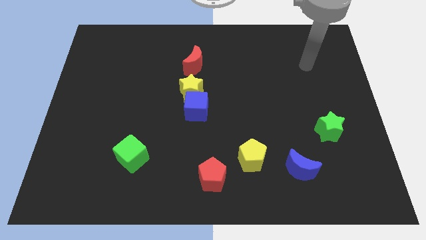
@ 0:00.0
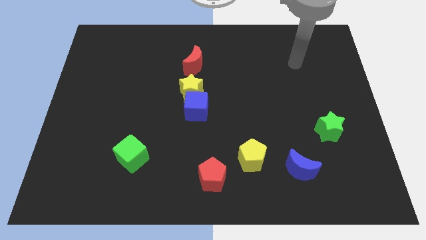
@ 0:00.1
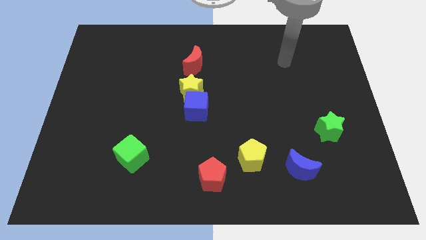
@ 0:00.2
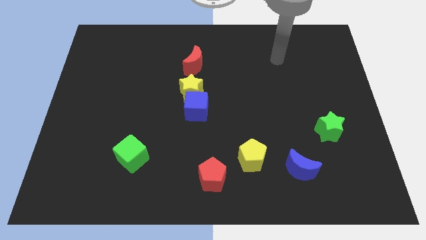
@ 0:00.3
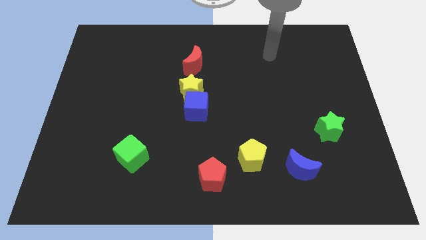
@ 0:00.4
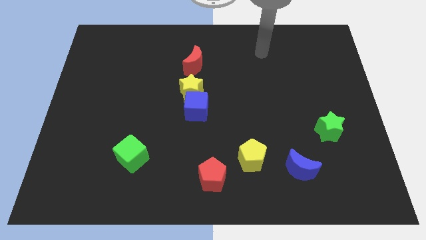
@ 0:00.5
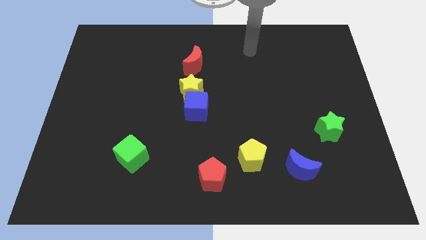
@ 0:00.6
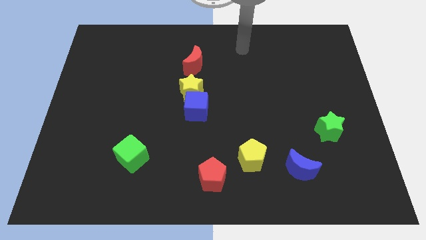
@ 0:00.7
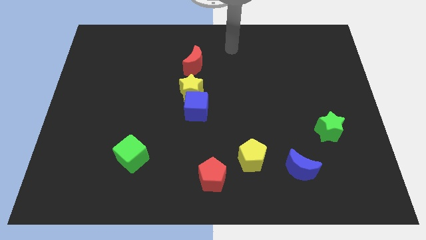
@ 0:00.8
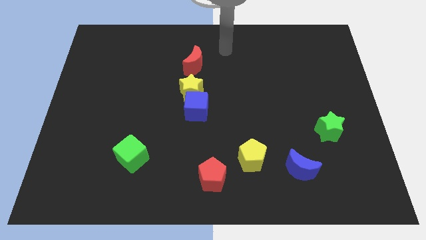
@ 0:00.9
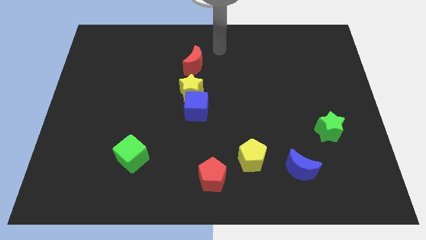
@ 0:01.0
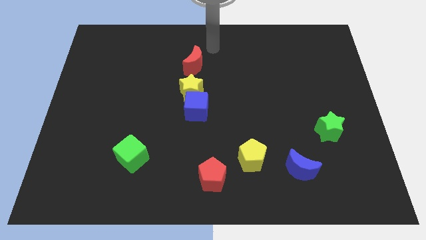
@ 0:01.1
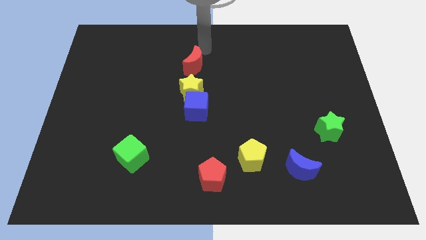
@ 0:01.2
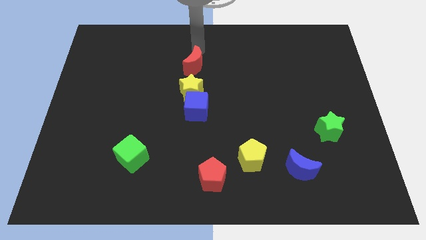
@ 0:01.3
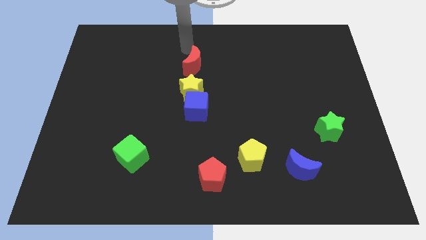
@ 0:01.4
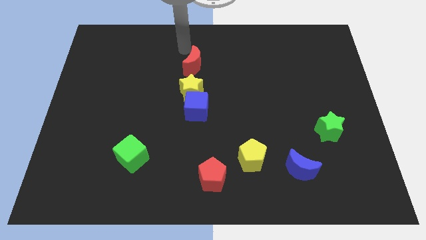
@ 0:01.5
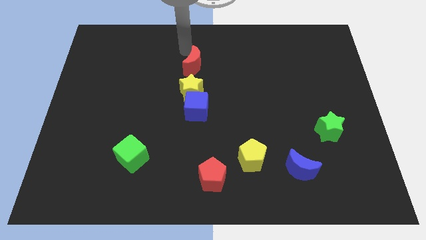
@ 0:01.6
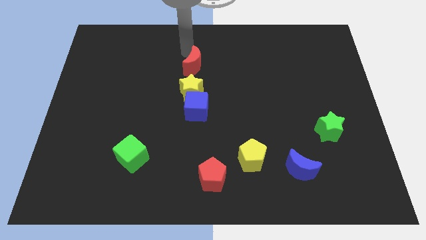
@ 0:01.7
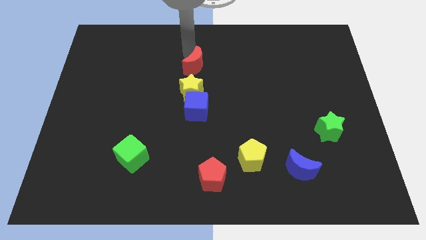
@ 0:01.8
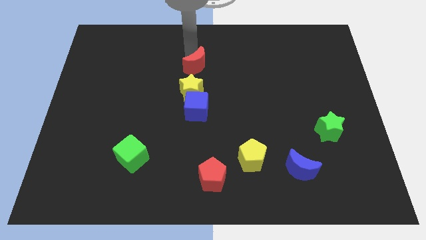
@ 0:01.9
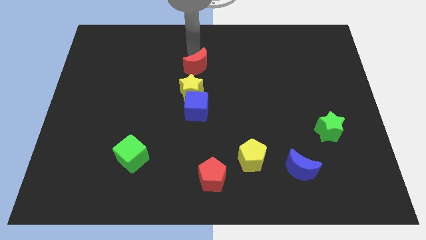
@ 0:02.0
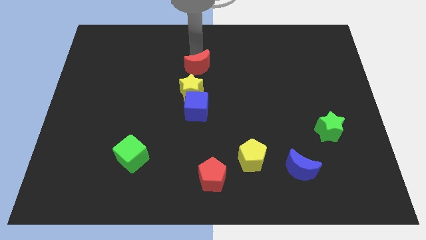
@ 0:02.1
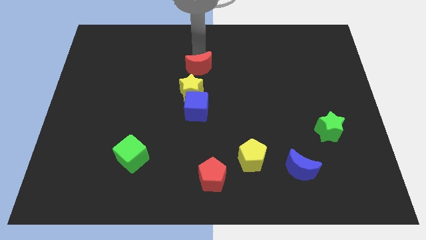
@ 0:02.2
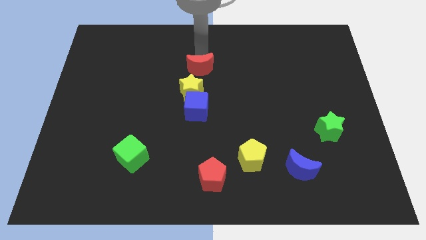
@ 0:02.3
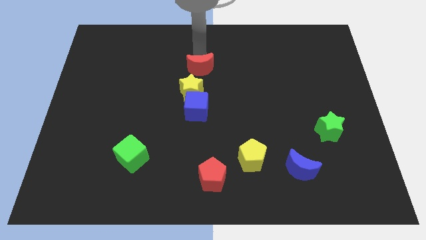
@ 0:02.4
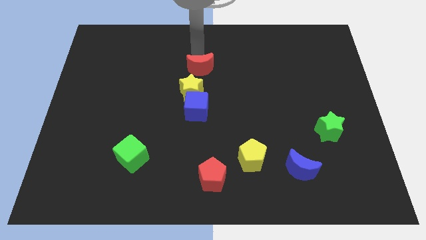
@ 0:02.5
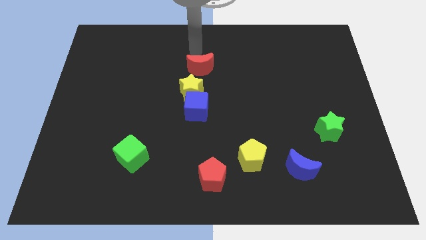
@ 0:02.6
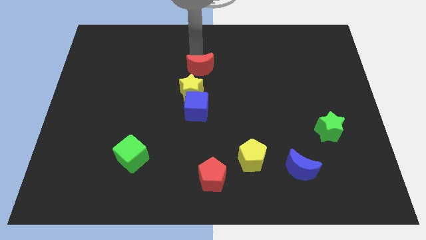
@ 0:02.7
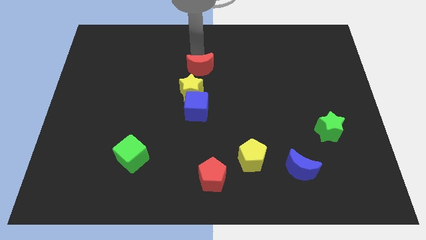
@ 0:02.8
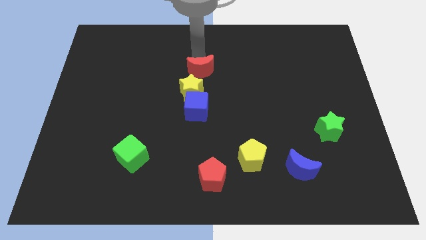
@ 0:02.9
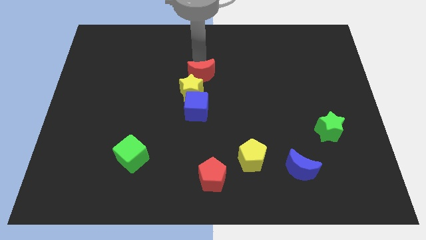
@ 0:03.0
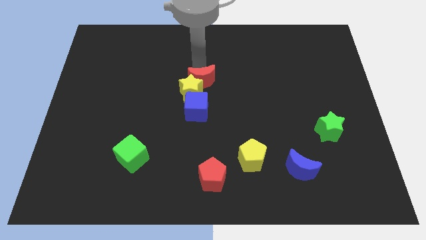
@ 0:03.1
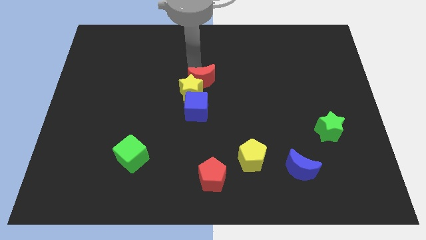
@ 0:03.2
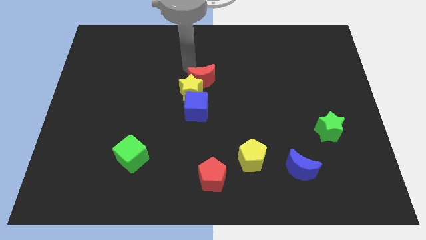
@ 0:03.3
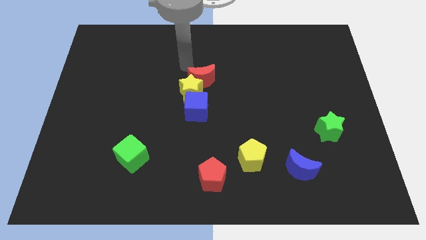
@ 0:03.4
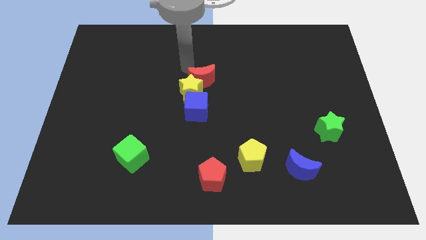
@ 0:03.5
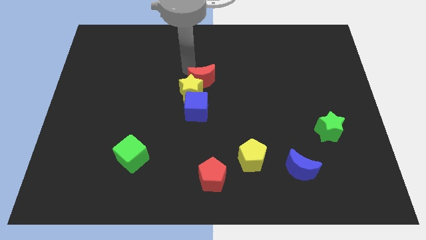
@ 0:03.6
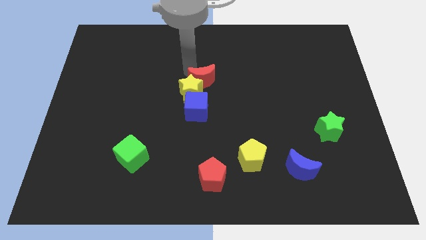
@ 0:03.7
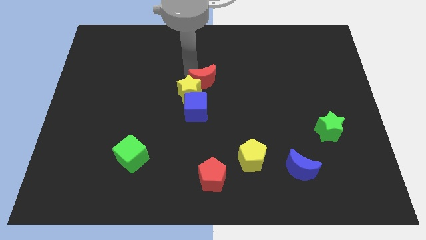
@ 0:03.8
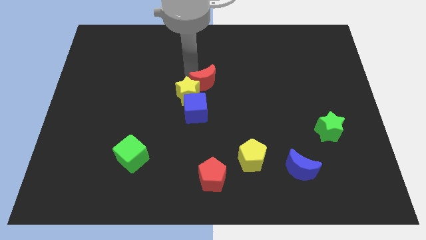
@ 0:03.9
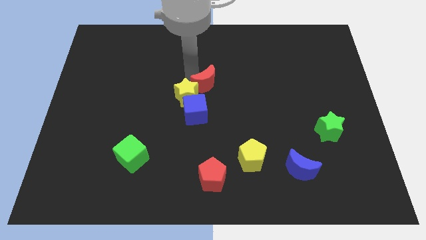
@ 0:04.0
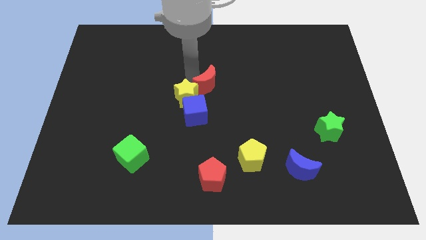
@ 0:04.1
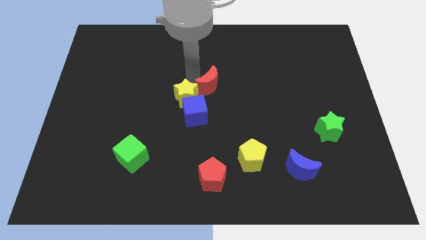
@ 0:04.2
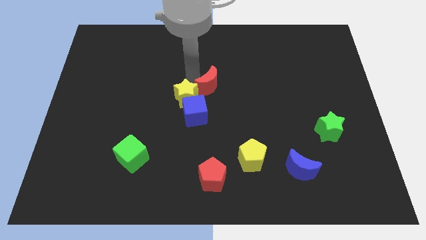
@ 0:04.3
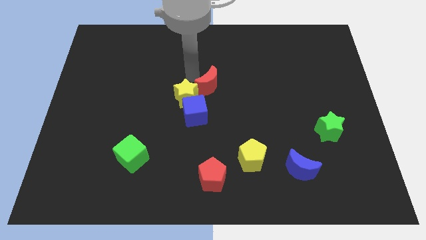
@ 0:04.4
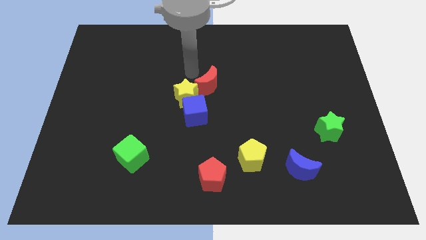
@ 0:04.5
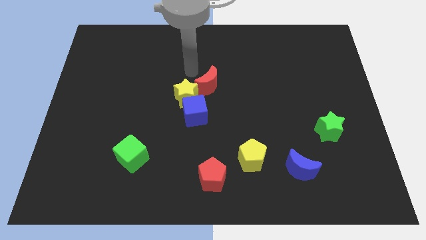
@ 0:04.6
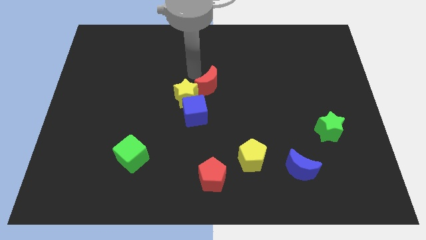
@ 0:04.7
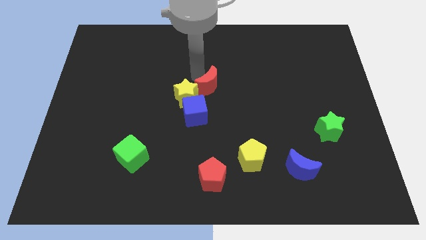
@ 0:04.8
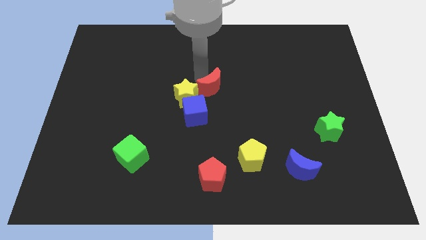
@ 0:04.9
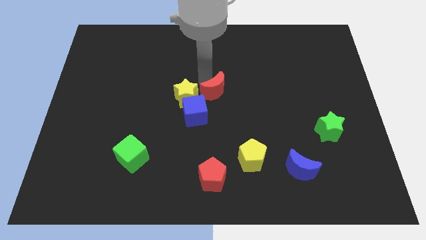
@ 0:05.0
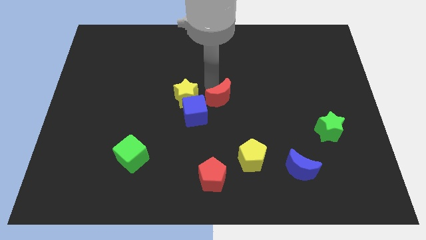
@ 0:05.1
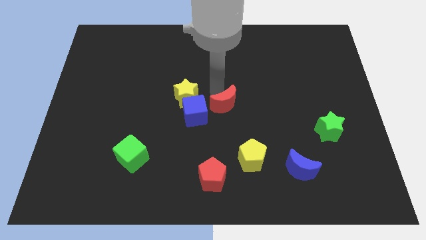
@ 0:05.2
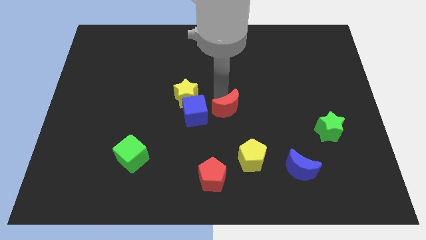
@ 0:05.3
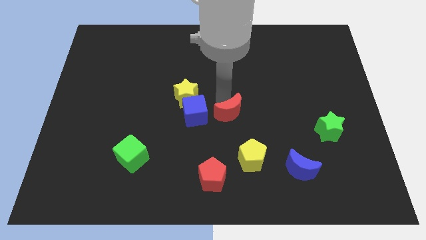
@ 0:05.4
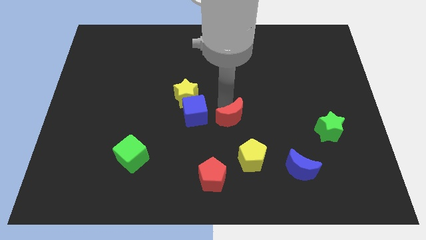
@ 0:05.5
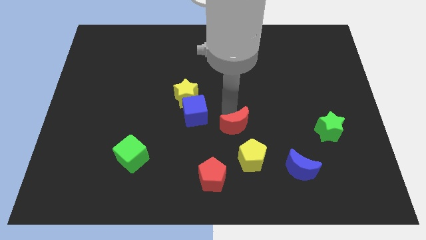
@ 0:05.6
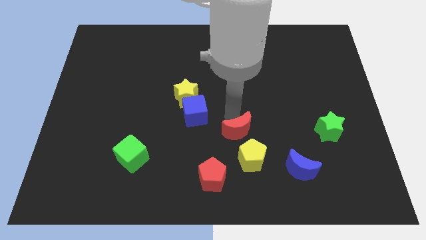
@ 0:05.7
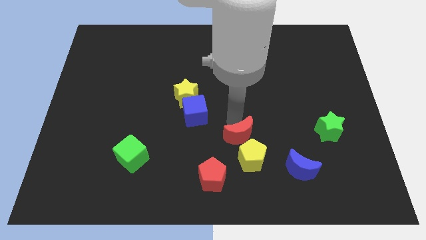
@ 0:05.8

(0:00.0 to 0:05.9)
slide the red moon to the yellow pentagon

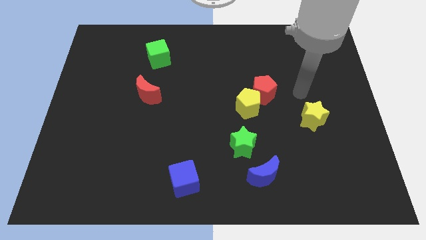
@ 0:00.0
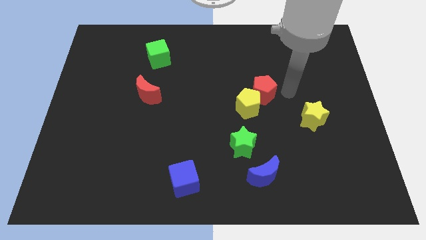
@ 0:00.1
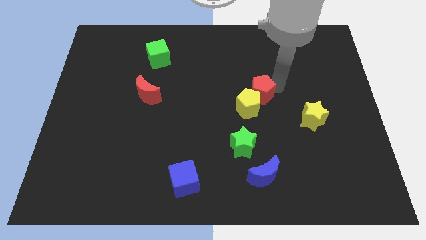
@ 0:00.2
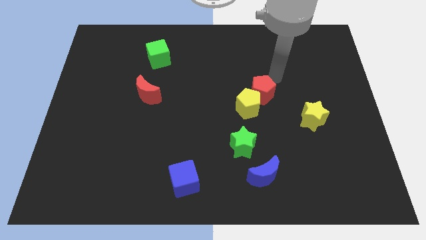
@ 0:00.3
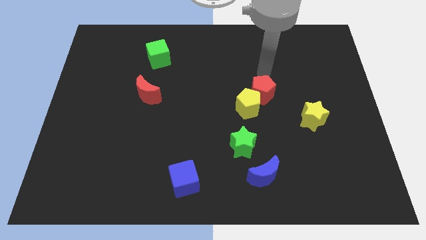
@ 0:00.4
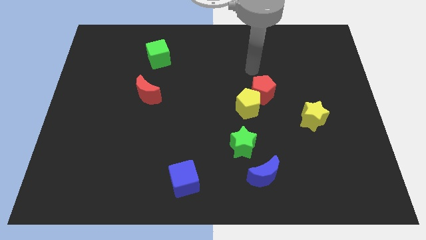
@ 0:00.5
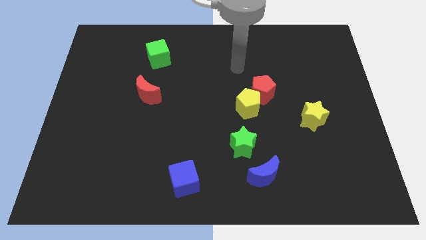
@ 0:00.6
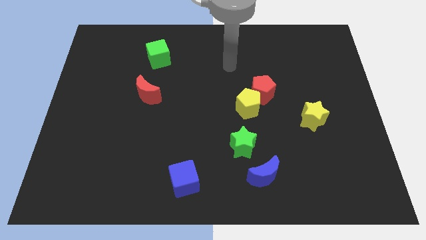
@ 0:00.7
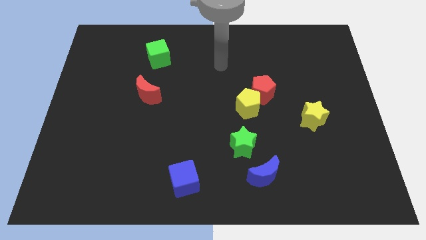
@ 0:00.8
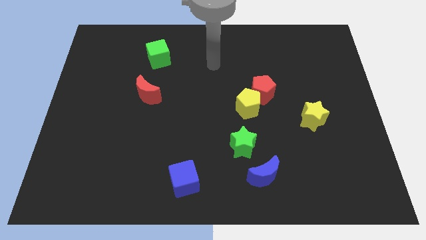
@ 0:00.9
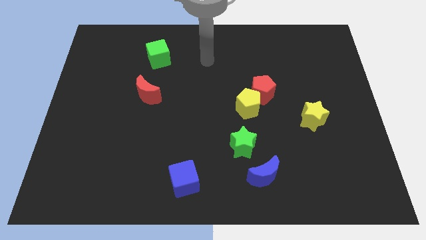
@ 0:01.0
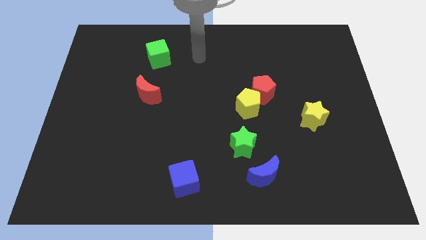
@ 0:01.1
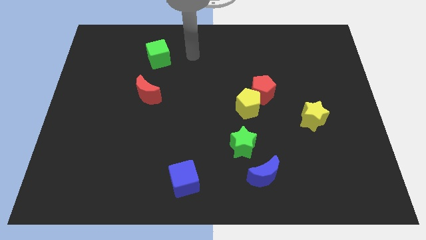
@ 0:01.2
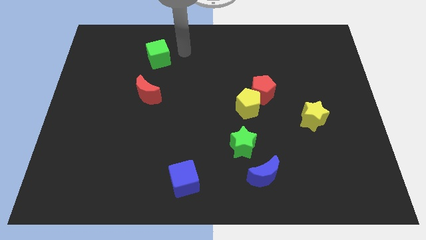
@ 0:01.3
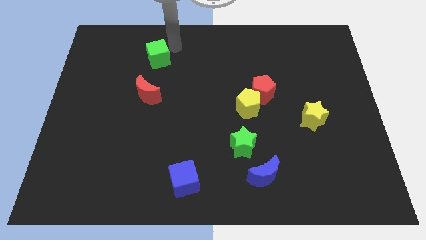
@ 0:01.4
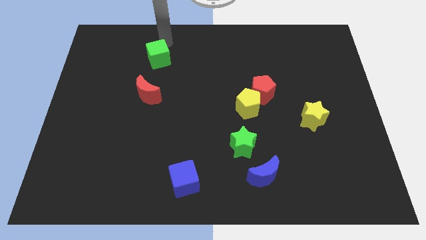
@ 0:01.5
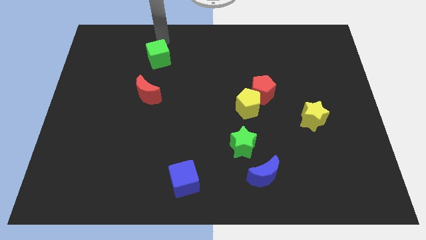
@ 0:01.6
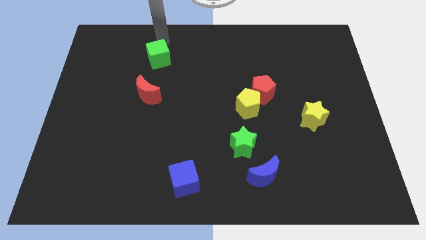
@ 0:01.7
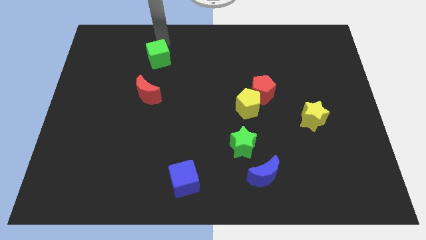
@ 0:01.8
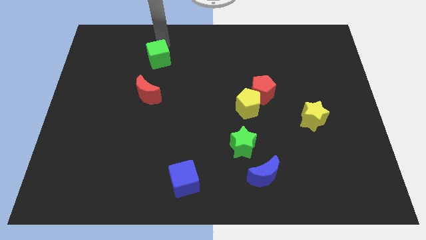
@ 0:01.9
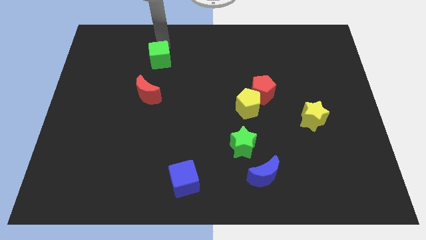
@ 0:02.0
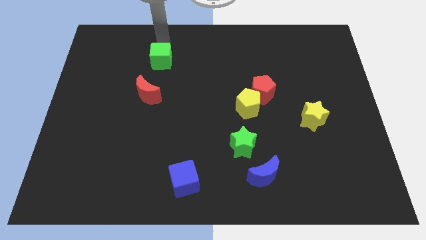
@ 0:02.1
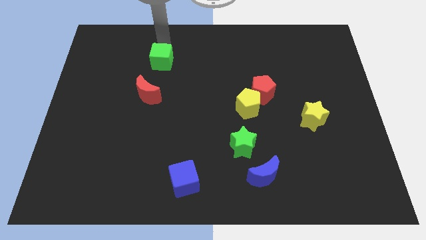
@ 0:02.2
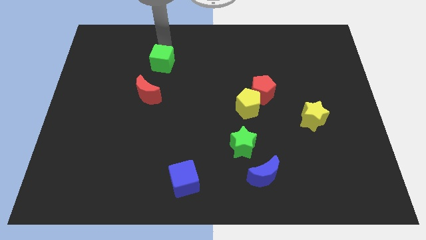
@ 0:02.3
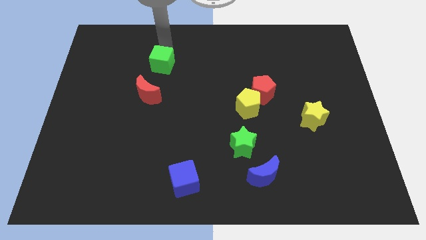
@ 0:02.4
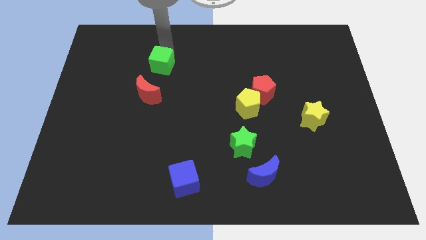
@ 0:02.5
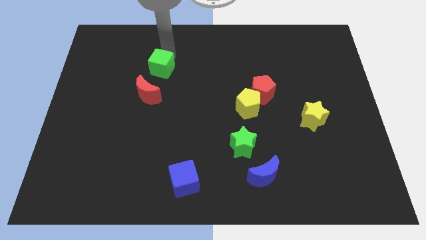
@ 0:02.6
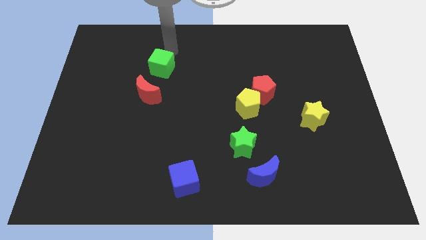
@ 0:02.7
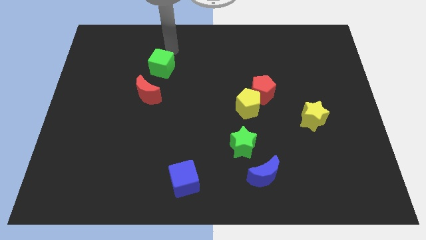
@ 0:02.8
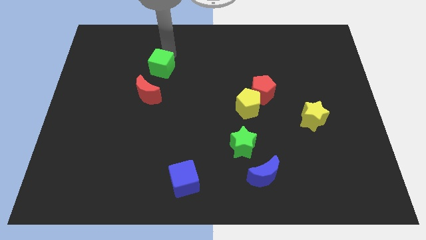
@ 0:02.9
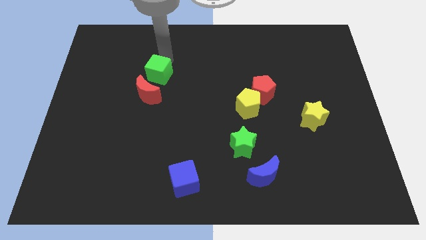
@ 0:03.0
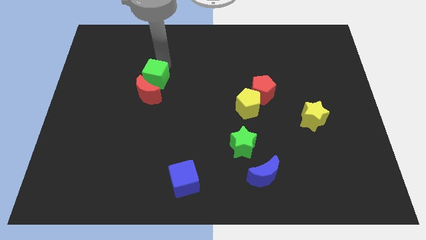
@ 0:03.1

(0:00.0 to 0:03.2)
move the green cube close to the red moon
